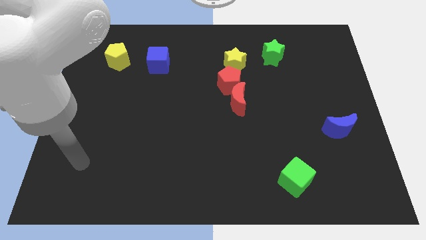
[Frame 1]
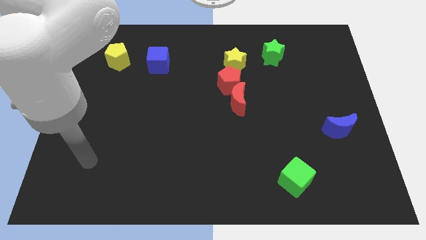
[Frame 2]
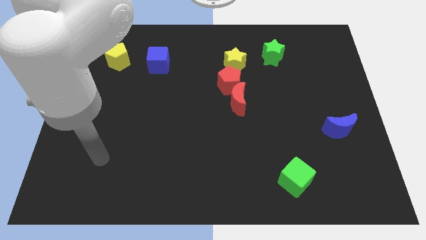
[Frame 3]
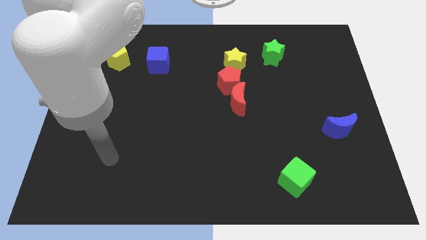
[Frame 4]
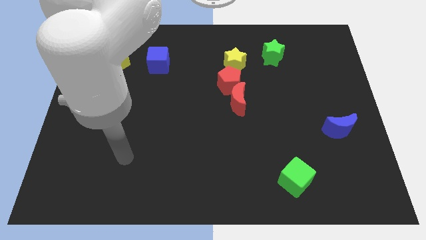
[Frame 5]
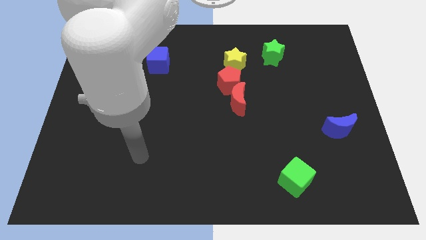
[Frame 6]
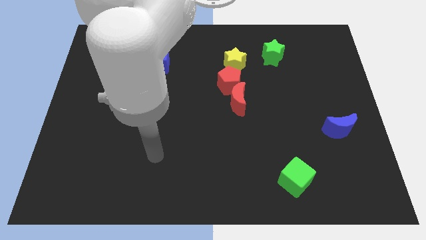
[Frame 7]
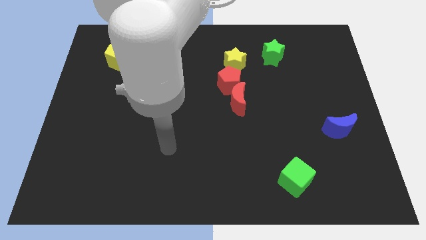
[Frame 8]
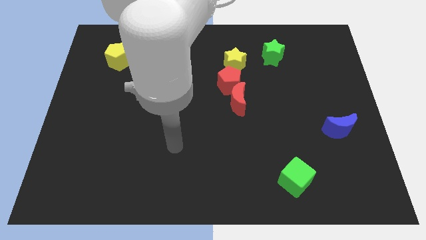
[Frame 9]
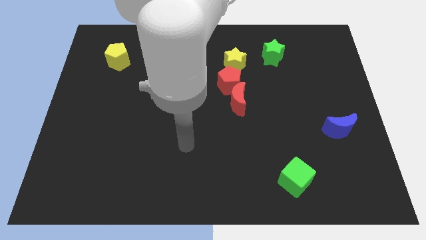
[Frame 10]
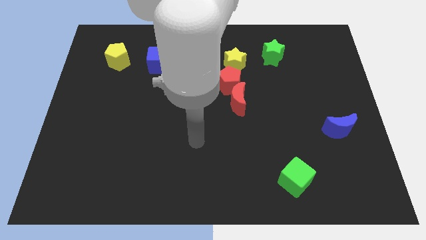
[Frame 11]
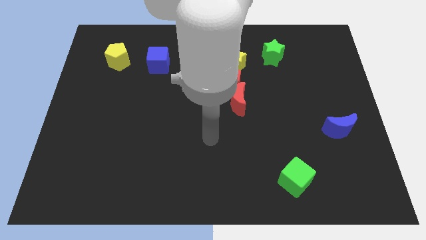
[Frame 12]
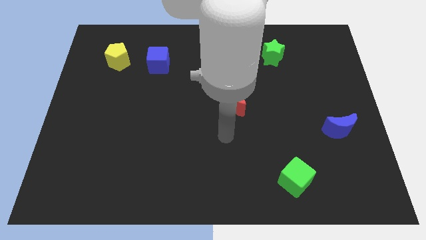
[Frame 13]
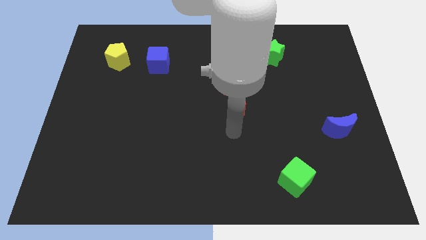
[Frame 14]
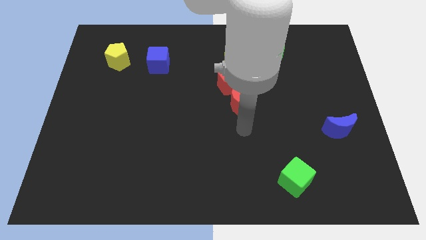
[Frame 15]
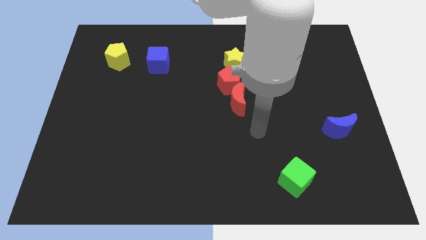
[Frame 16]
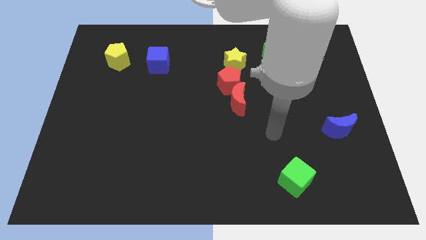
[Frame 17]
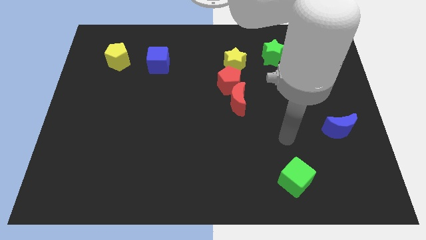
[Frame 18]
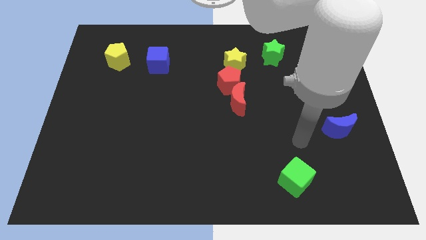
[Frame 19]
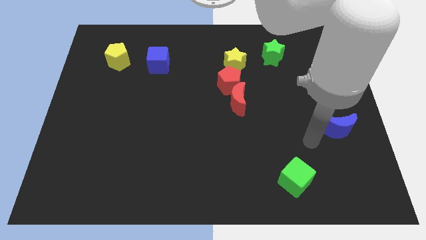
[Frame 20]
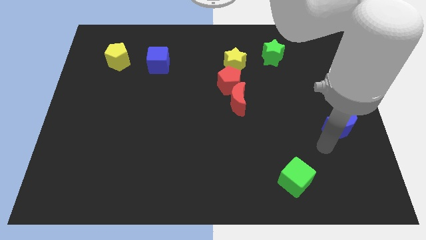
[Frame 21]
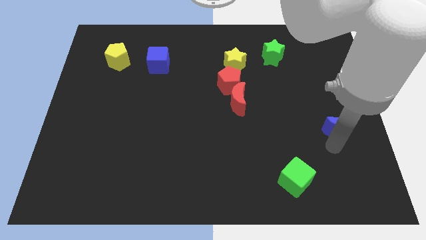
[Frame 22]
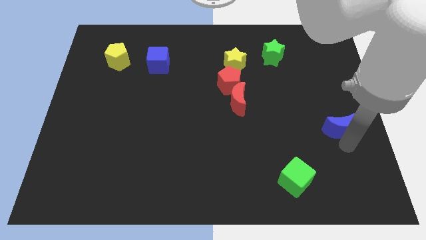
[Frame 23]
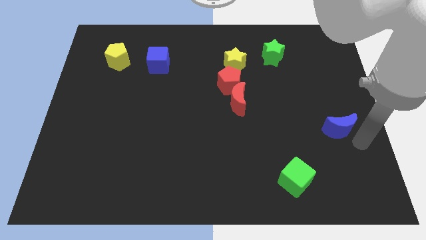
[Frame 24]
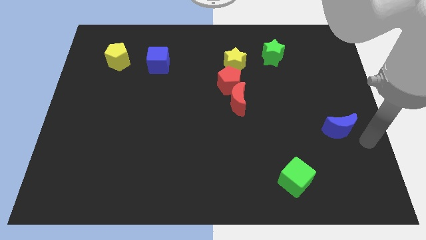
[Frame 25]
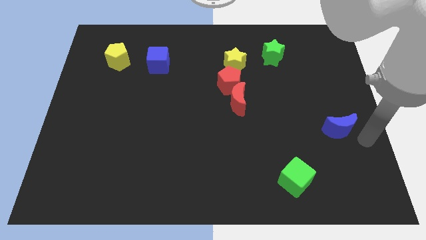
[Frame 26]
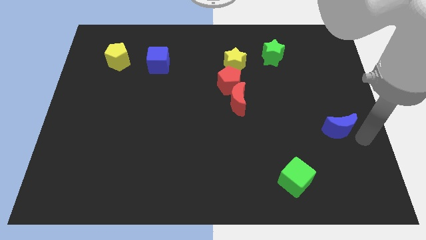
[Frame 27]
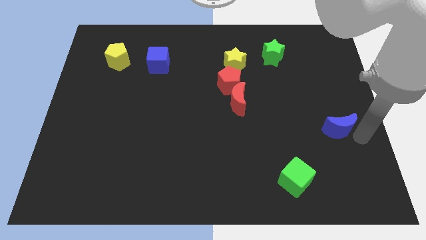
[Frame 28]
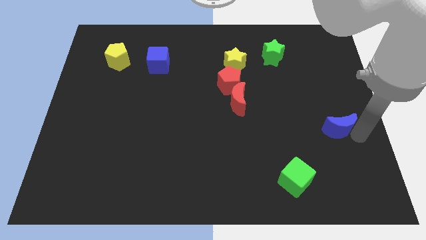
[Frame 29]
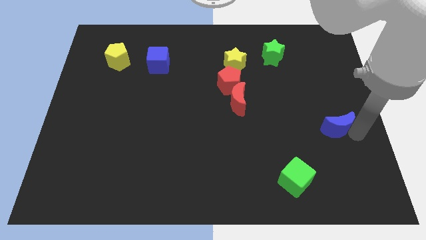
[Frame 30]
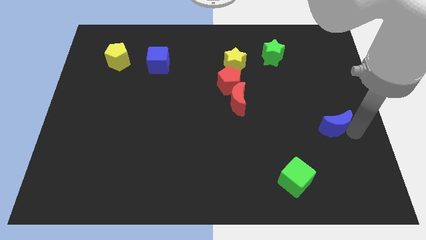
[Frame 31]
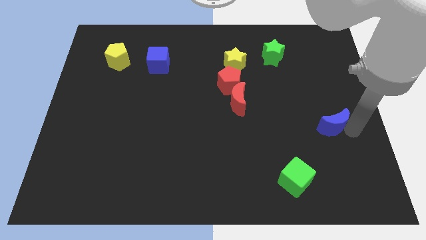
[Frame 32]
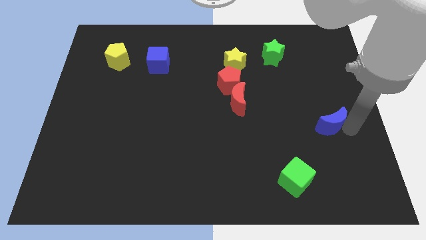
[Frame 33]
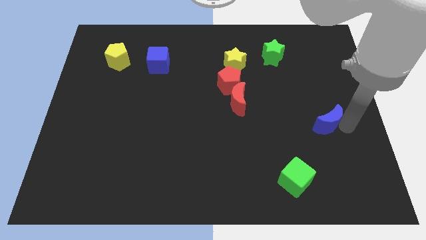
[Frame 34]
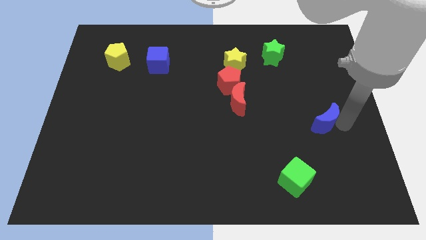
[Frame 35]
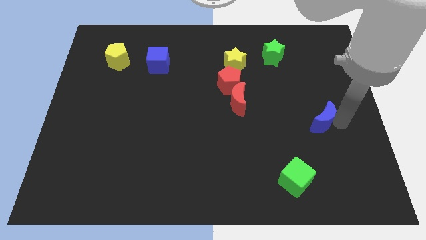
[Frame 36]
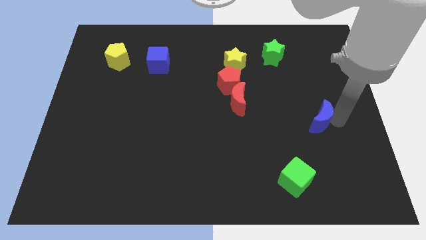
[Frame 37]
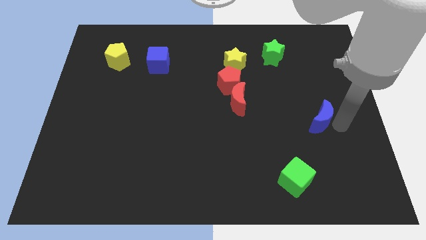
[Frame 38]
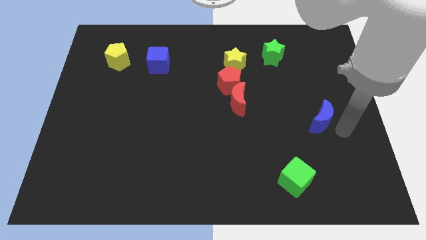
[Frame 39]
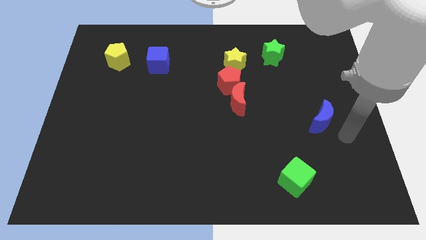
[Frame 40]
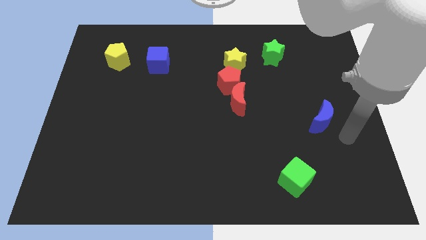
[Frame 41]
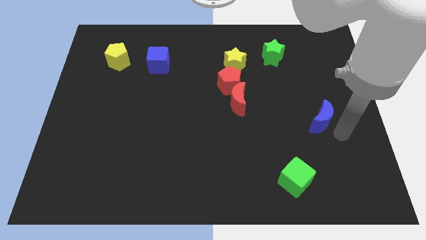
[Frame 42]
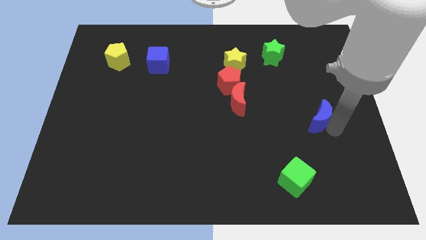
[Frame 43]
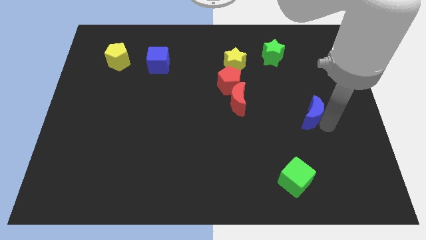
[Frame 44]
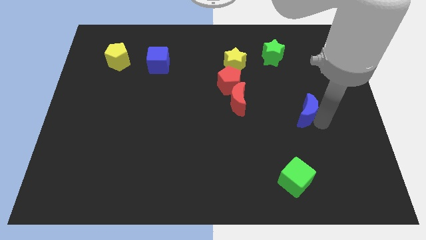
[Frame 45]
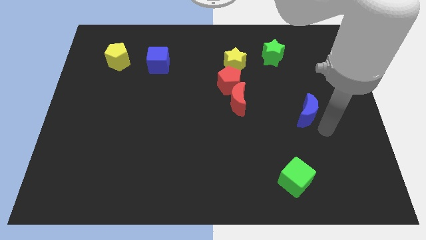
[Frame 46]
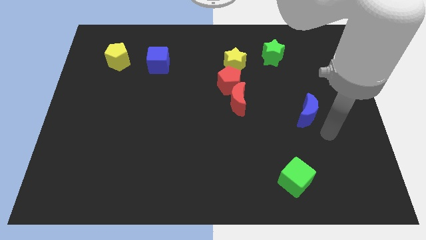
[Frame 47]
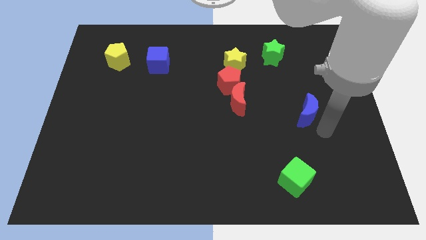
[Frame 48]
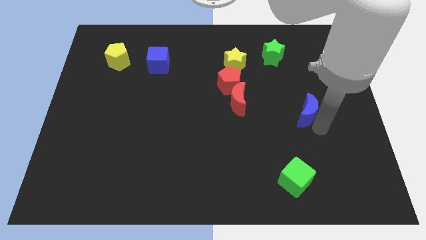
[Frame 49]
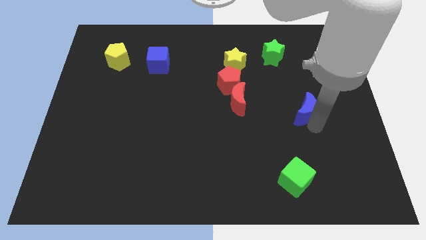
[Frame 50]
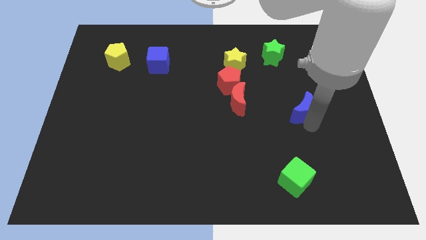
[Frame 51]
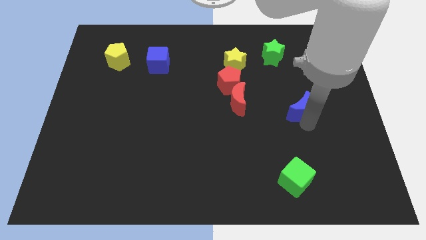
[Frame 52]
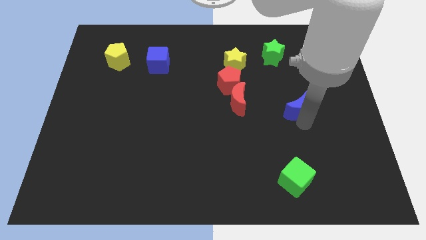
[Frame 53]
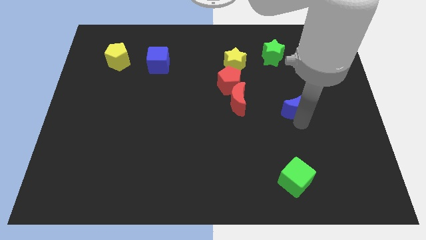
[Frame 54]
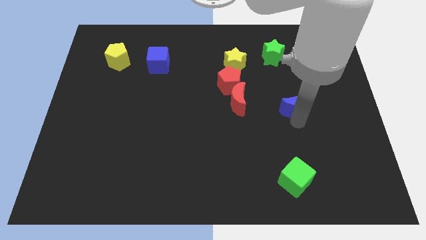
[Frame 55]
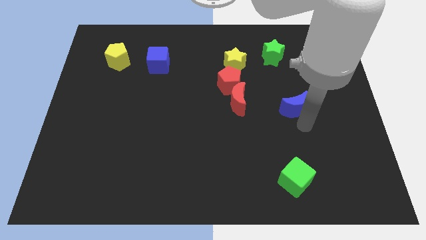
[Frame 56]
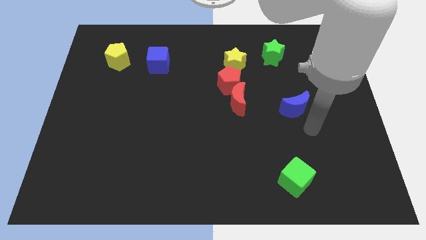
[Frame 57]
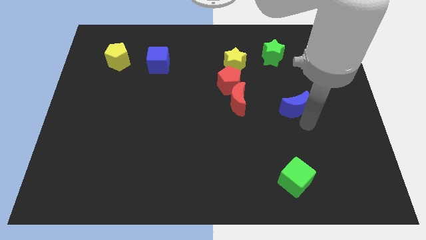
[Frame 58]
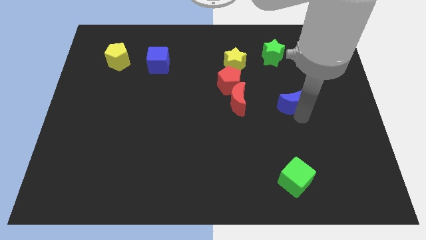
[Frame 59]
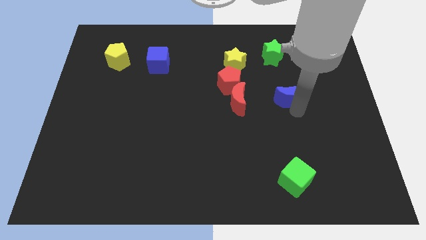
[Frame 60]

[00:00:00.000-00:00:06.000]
push the blue moon to the bottom of the green star
